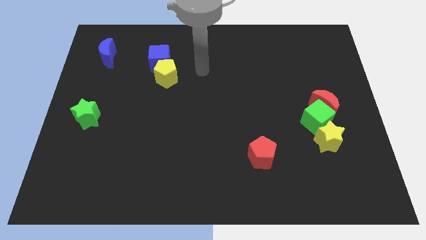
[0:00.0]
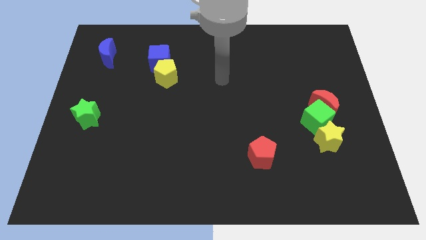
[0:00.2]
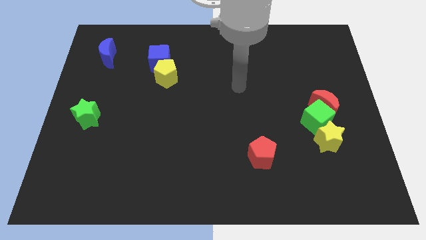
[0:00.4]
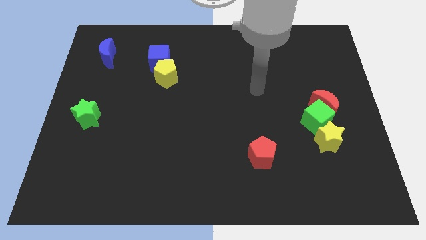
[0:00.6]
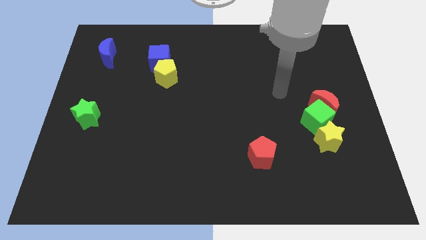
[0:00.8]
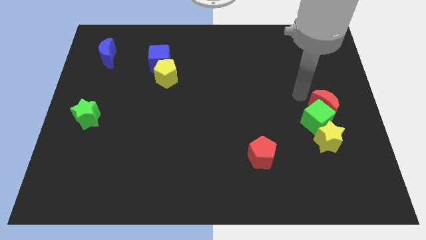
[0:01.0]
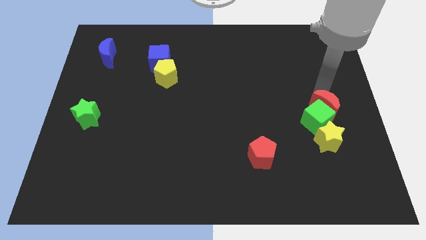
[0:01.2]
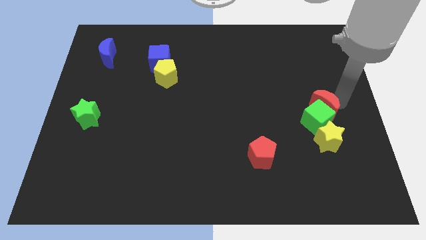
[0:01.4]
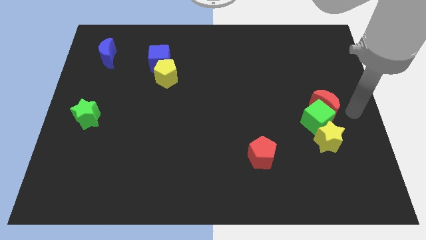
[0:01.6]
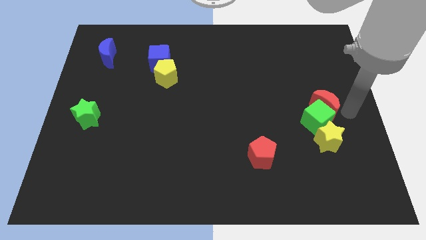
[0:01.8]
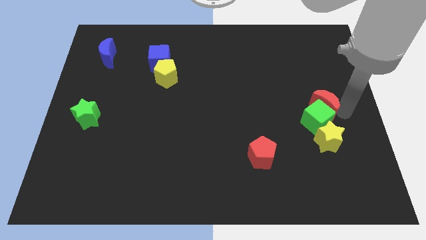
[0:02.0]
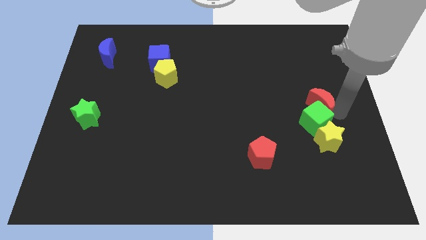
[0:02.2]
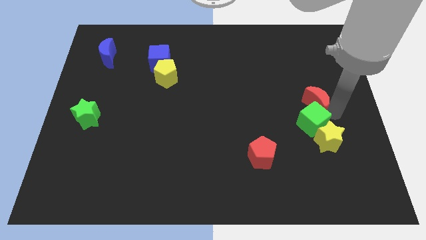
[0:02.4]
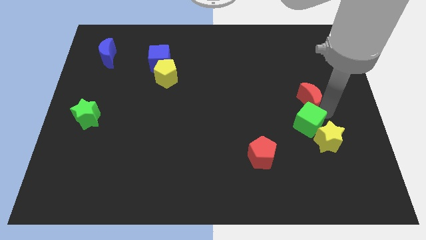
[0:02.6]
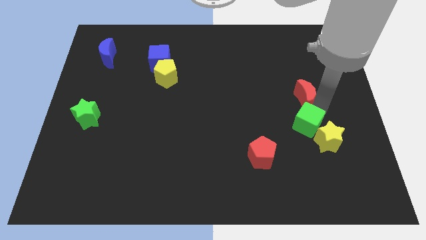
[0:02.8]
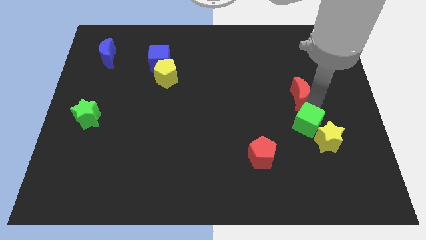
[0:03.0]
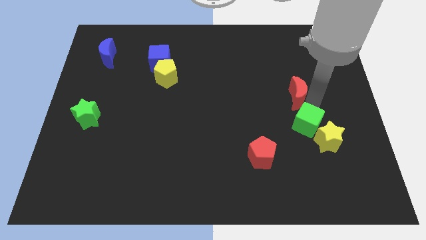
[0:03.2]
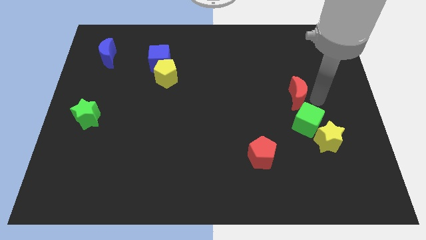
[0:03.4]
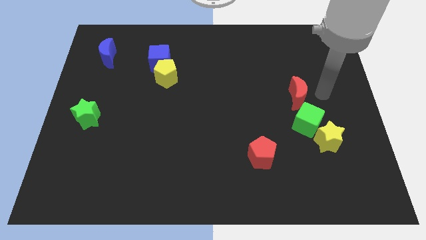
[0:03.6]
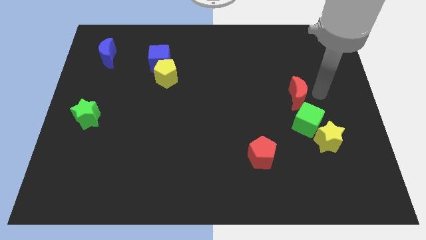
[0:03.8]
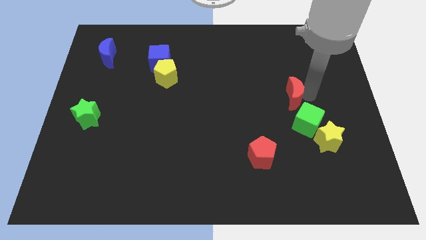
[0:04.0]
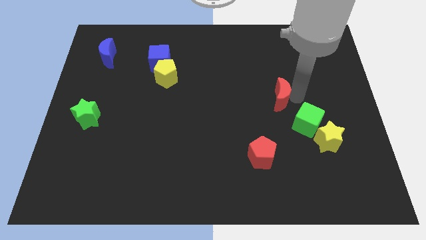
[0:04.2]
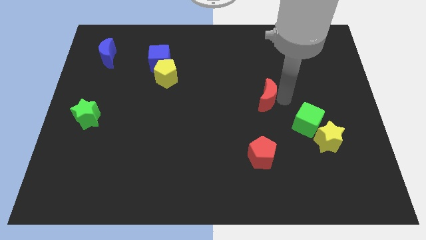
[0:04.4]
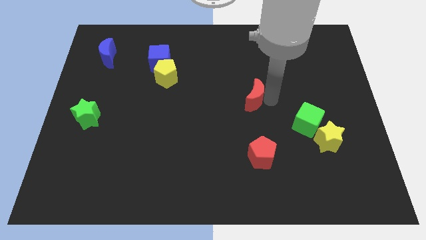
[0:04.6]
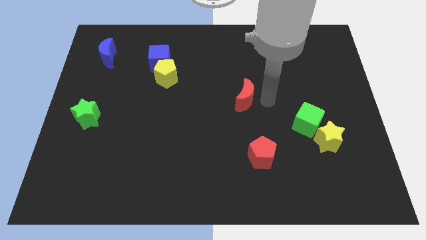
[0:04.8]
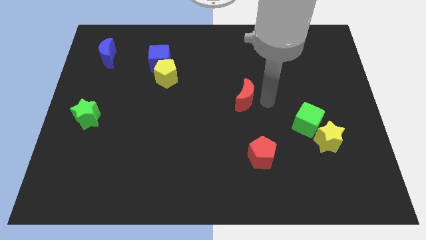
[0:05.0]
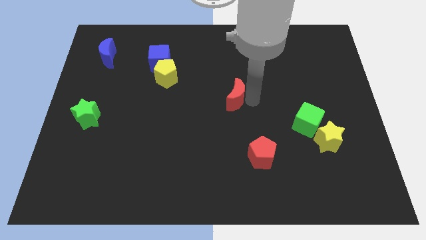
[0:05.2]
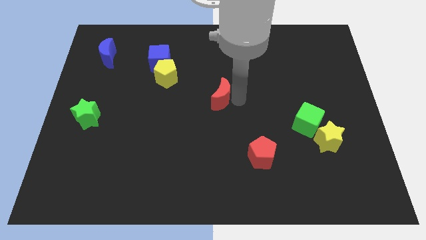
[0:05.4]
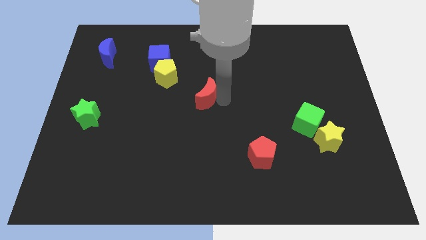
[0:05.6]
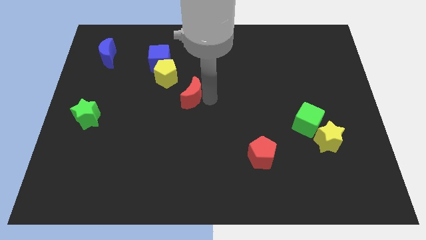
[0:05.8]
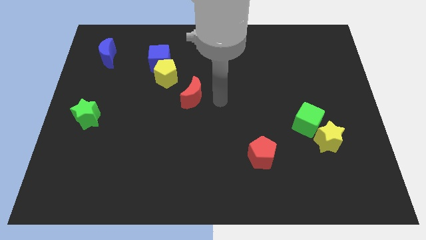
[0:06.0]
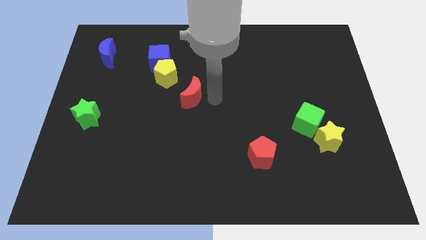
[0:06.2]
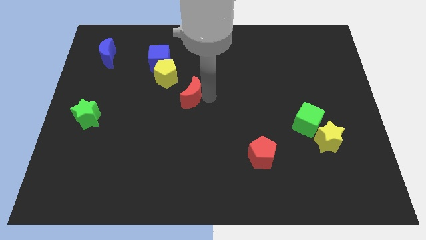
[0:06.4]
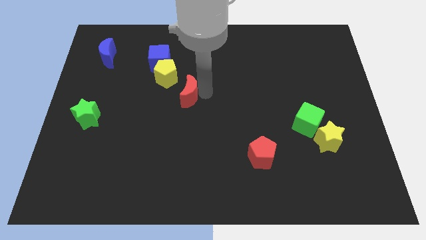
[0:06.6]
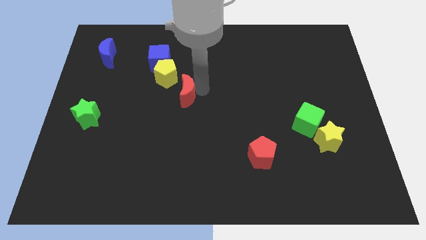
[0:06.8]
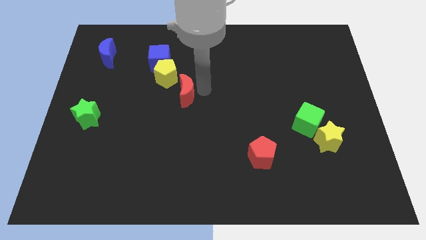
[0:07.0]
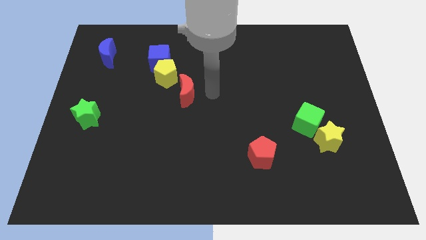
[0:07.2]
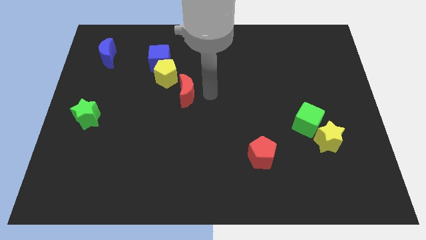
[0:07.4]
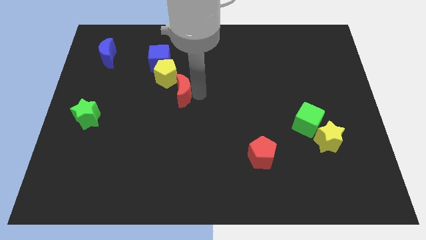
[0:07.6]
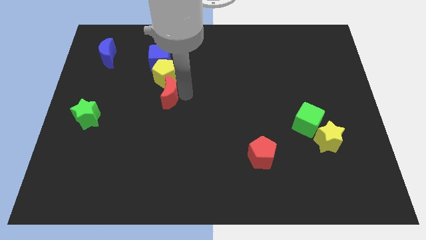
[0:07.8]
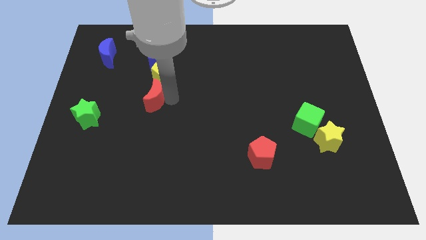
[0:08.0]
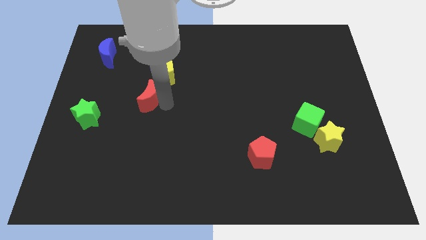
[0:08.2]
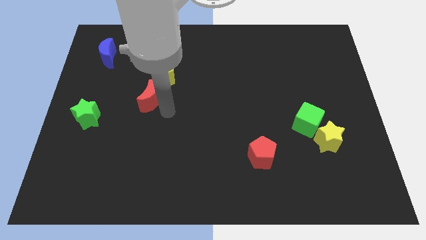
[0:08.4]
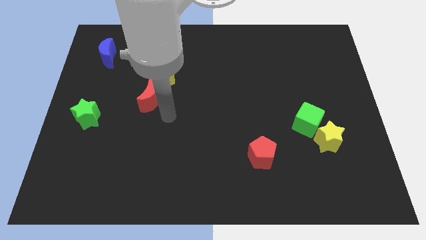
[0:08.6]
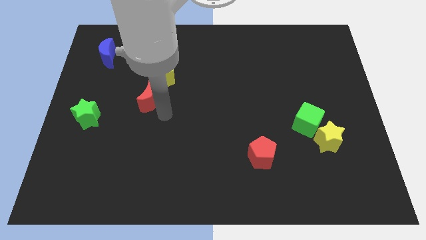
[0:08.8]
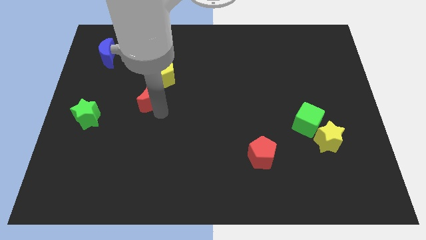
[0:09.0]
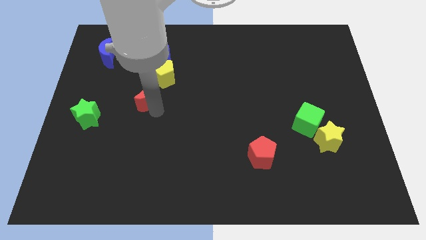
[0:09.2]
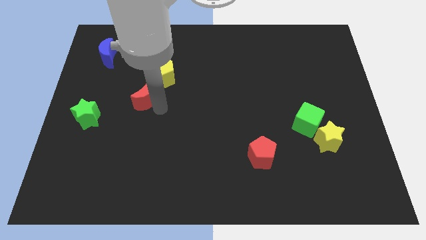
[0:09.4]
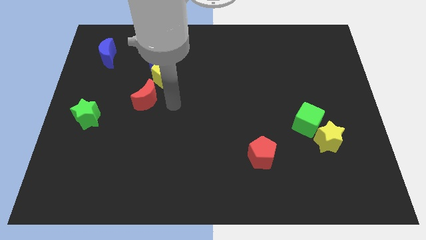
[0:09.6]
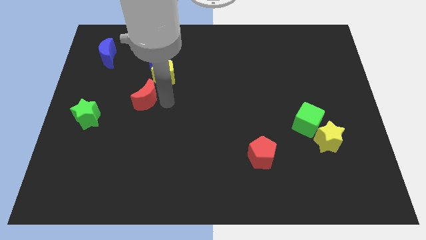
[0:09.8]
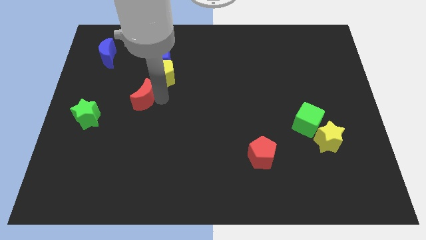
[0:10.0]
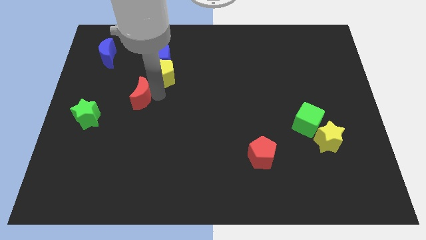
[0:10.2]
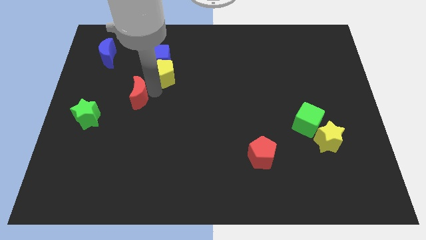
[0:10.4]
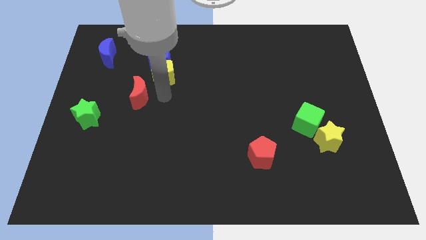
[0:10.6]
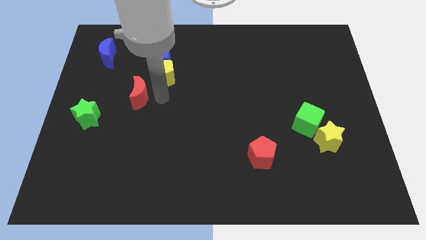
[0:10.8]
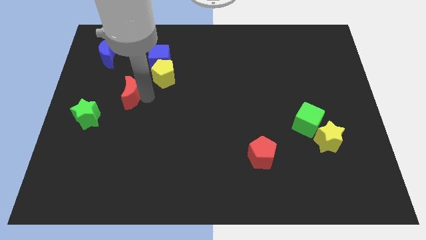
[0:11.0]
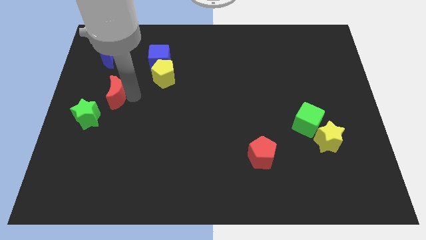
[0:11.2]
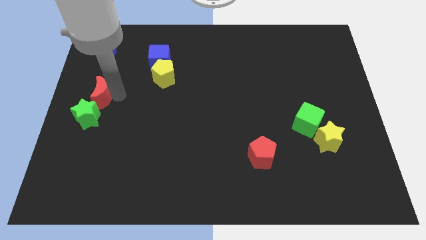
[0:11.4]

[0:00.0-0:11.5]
push the red moon to the center left

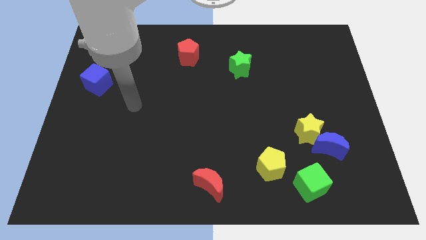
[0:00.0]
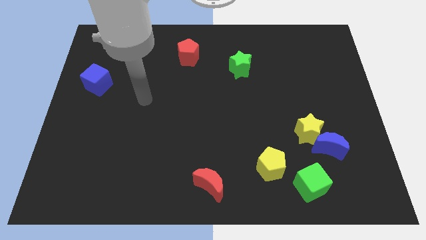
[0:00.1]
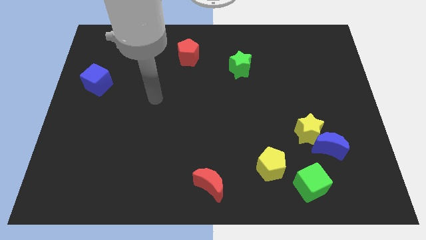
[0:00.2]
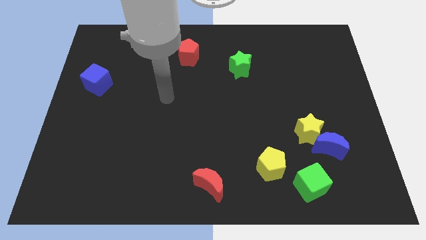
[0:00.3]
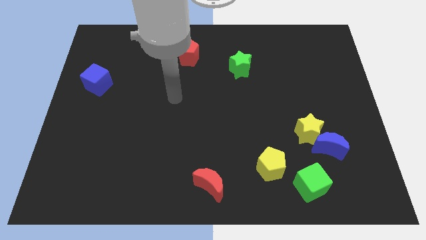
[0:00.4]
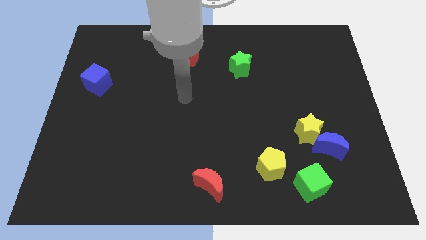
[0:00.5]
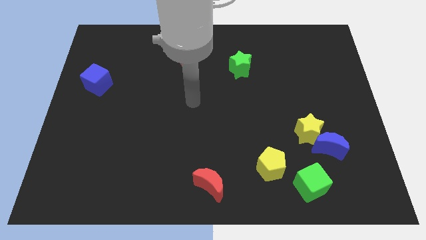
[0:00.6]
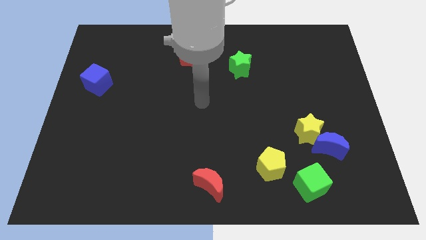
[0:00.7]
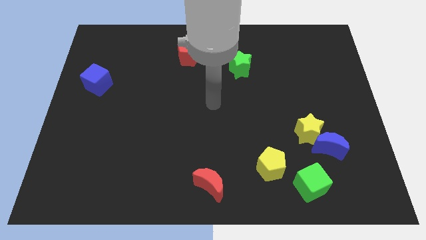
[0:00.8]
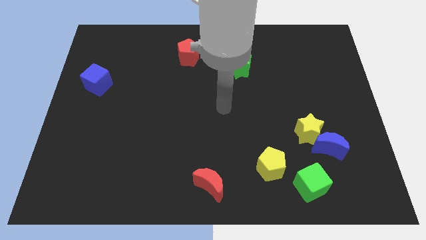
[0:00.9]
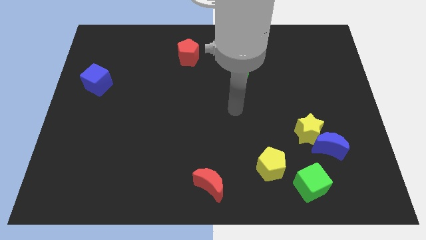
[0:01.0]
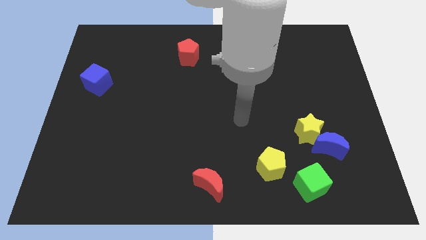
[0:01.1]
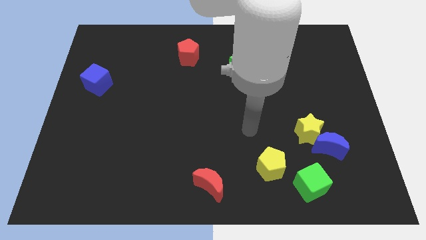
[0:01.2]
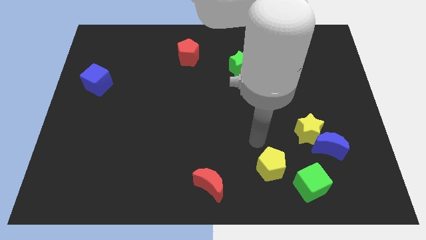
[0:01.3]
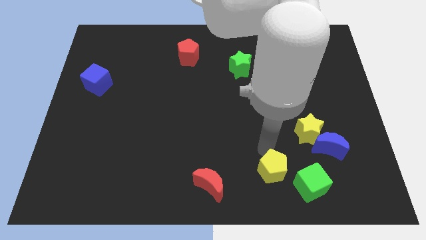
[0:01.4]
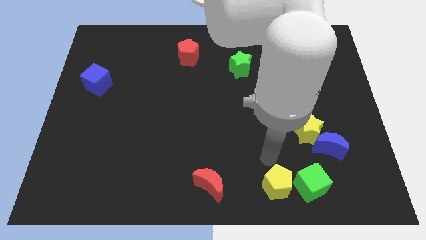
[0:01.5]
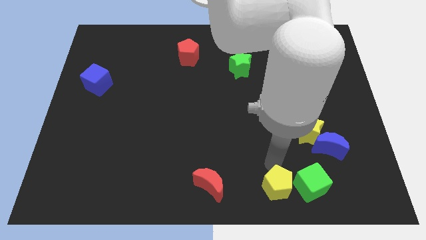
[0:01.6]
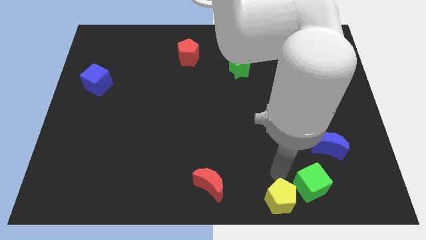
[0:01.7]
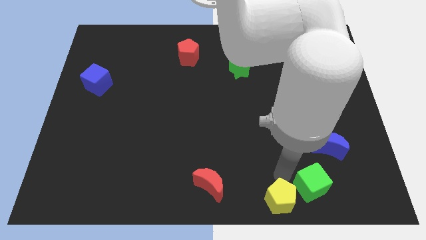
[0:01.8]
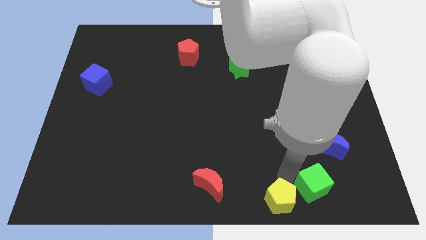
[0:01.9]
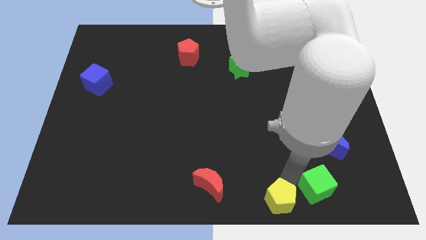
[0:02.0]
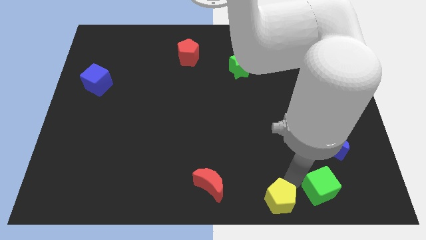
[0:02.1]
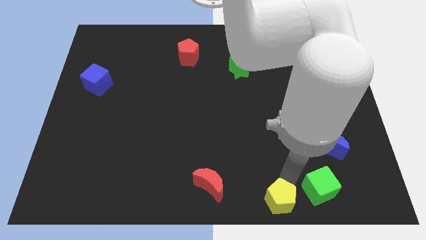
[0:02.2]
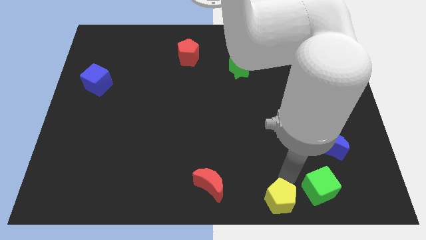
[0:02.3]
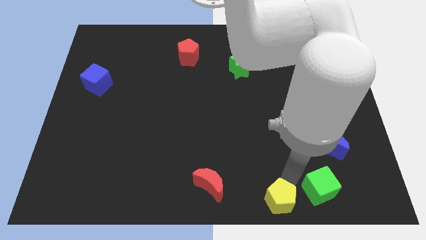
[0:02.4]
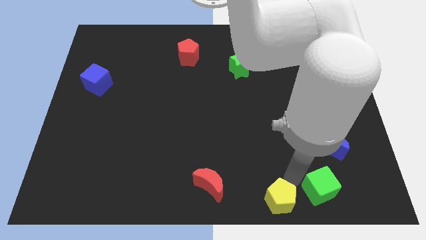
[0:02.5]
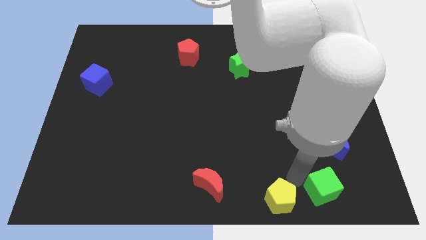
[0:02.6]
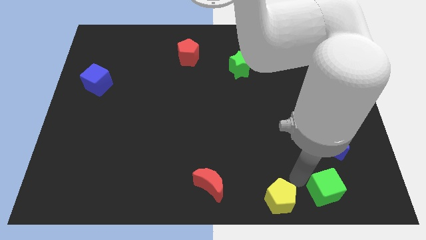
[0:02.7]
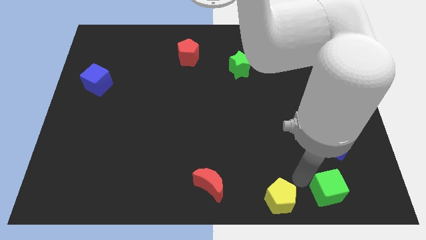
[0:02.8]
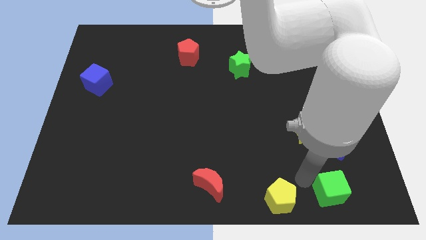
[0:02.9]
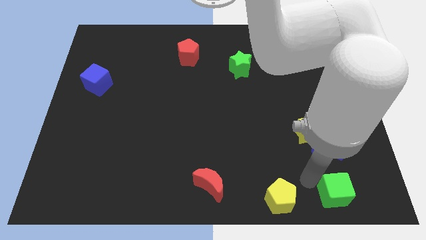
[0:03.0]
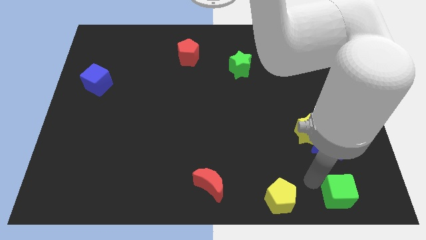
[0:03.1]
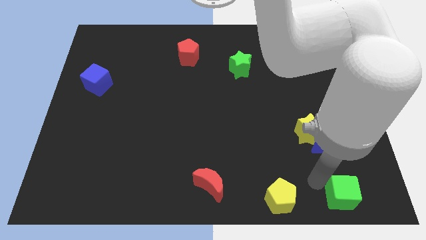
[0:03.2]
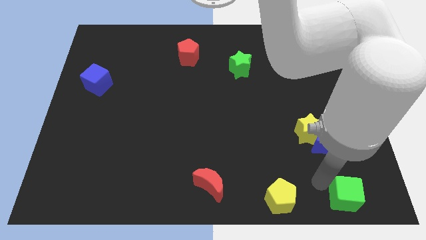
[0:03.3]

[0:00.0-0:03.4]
put the green cube to the bottom right
